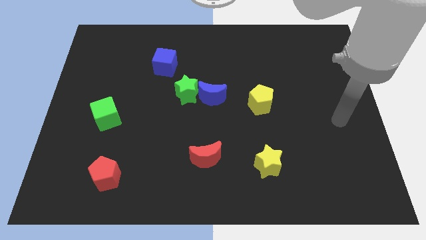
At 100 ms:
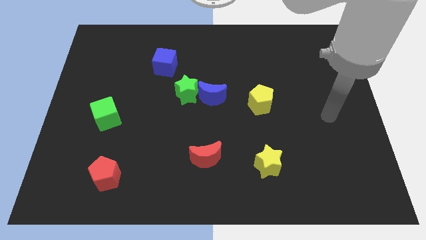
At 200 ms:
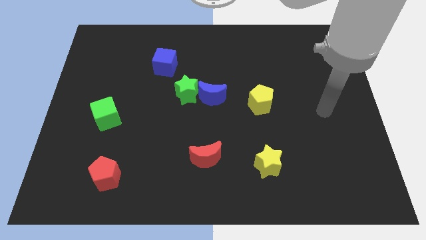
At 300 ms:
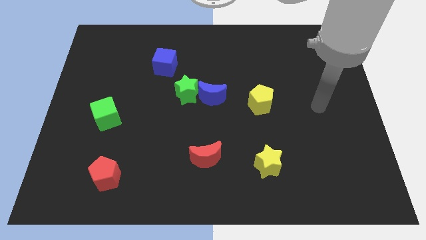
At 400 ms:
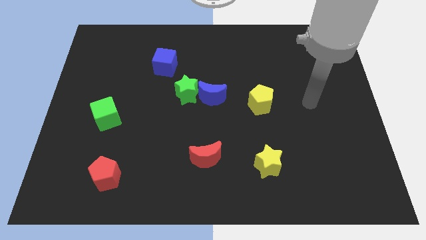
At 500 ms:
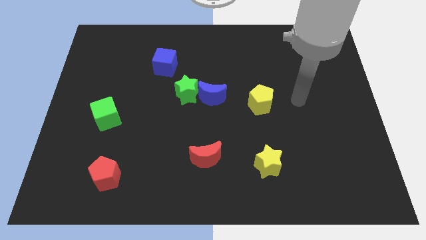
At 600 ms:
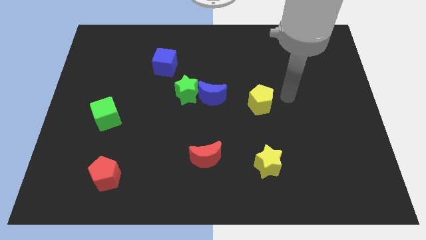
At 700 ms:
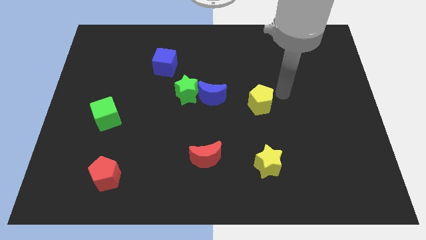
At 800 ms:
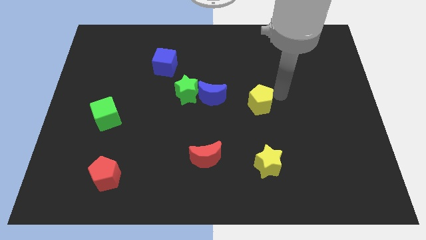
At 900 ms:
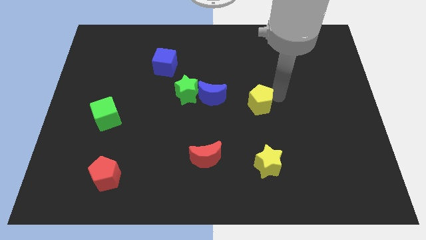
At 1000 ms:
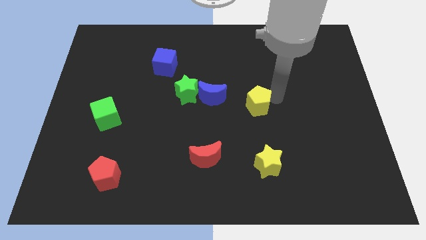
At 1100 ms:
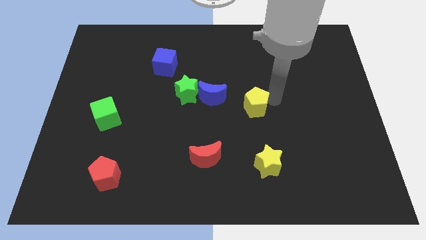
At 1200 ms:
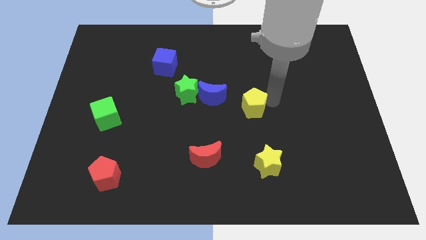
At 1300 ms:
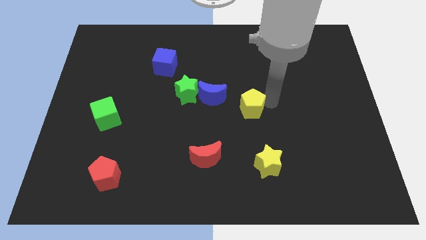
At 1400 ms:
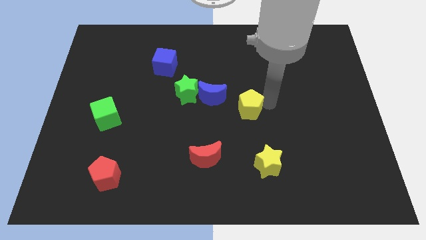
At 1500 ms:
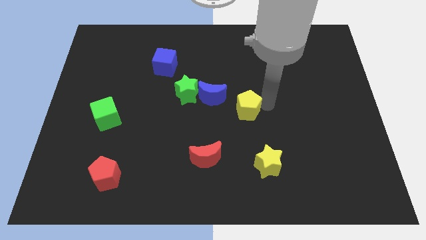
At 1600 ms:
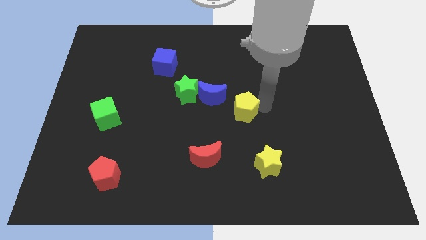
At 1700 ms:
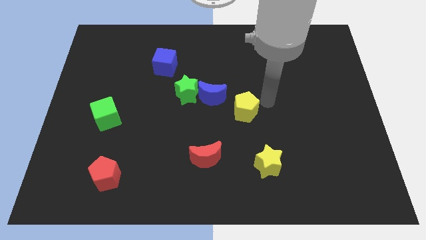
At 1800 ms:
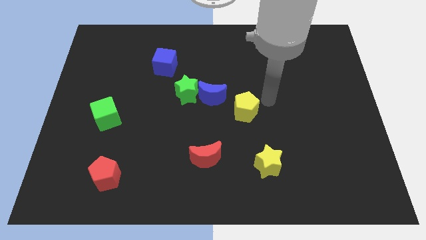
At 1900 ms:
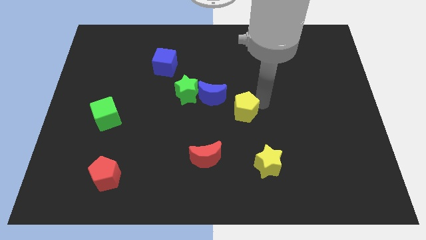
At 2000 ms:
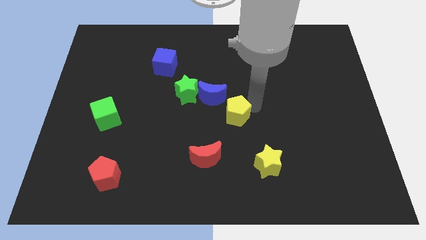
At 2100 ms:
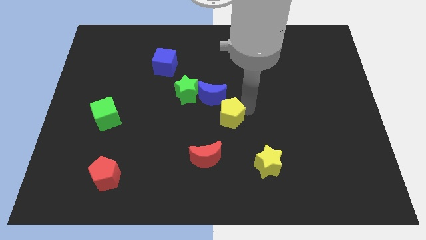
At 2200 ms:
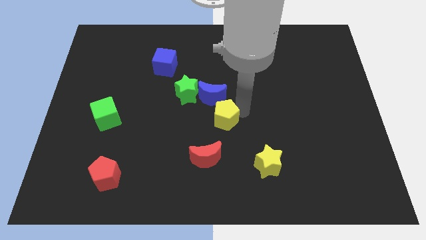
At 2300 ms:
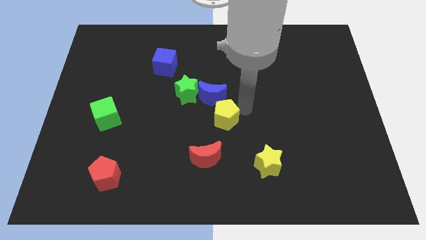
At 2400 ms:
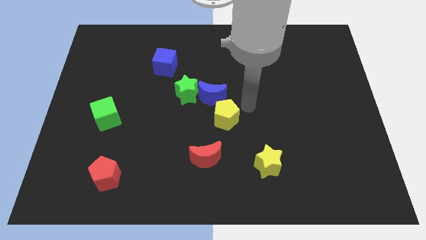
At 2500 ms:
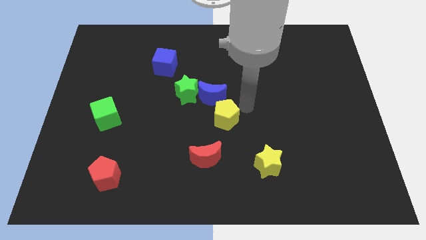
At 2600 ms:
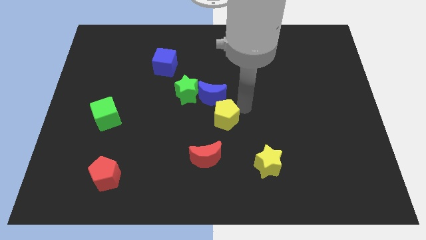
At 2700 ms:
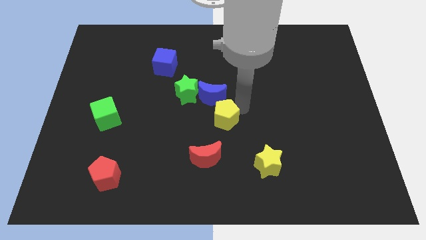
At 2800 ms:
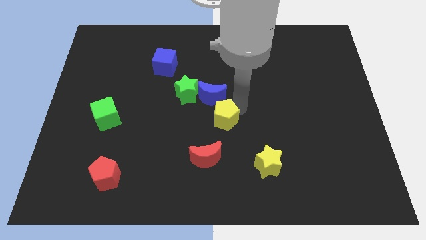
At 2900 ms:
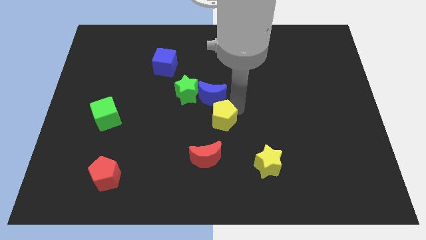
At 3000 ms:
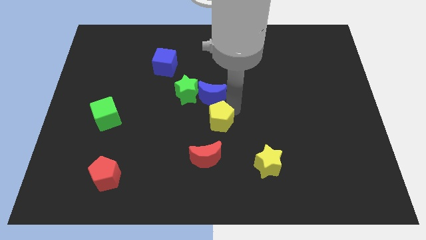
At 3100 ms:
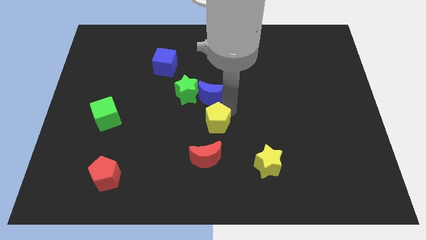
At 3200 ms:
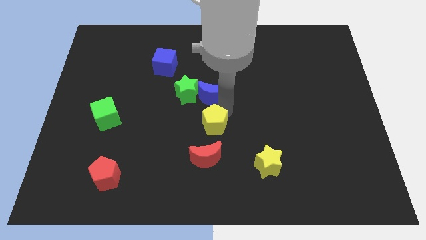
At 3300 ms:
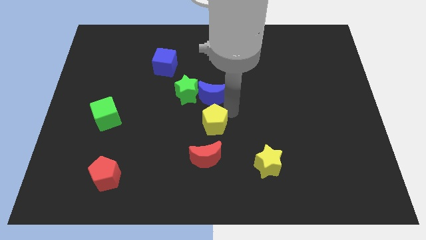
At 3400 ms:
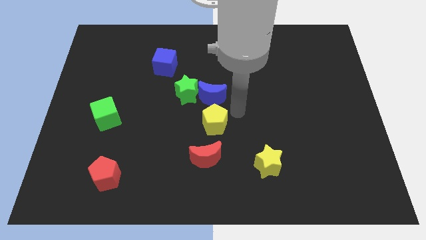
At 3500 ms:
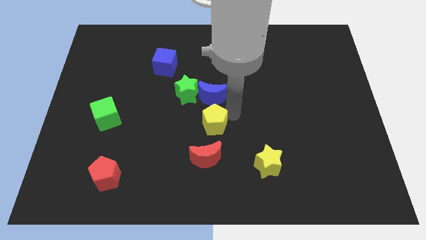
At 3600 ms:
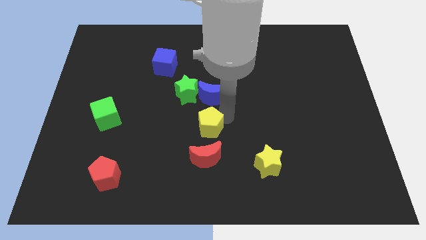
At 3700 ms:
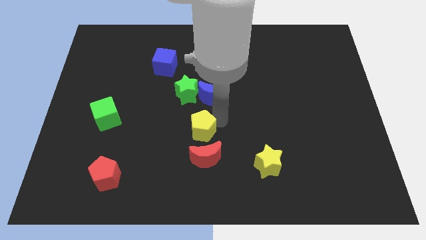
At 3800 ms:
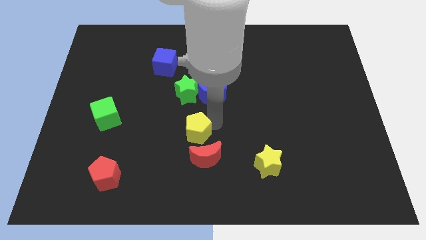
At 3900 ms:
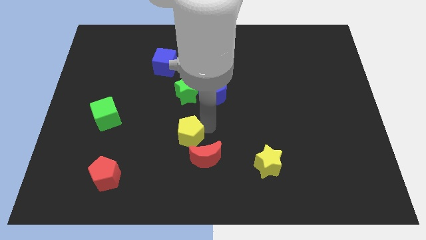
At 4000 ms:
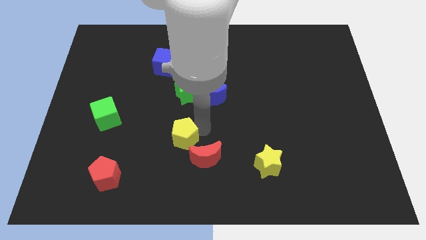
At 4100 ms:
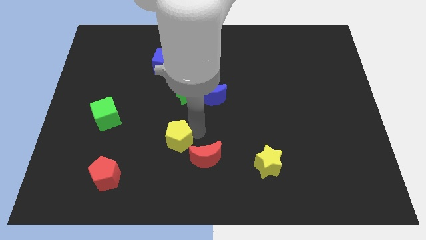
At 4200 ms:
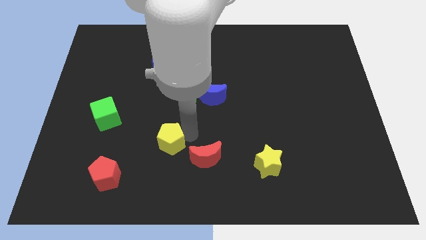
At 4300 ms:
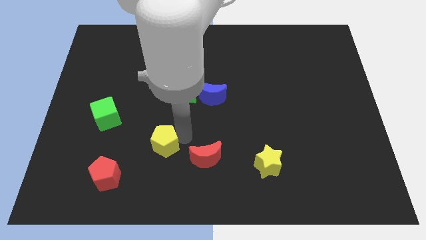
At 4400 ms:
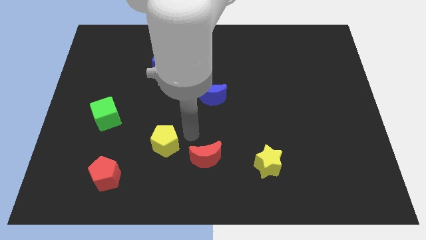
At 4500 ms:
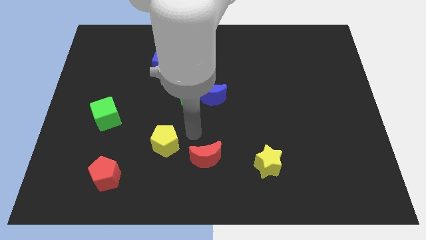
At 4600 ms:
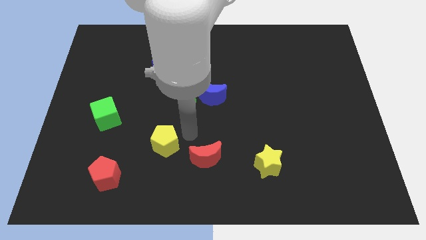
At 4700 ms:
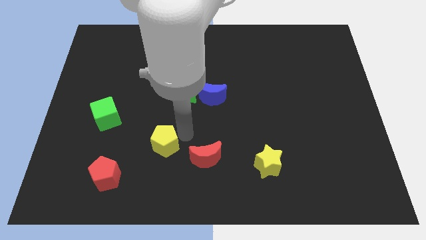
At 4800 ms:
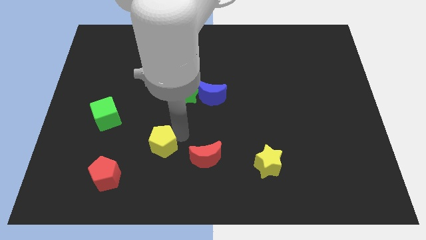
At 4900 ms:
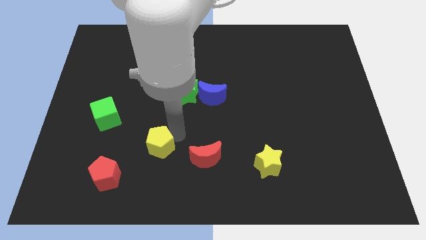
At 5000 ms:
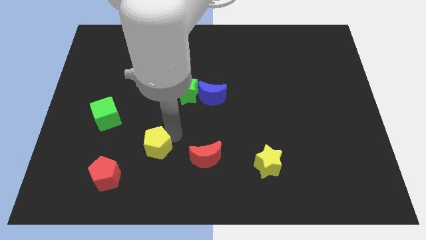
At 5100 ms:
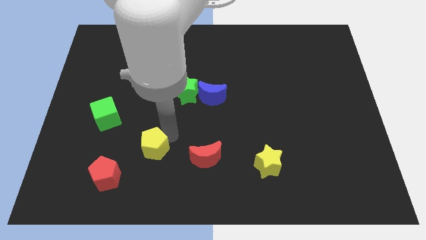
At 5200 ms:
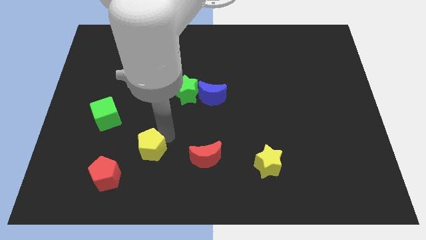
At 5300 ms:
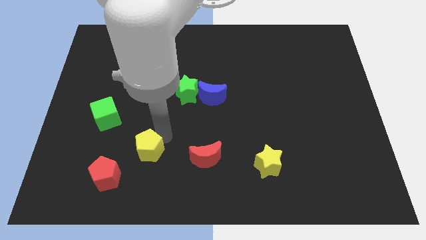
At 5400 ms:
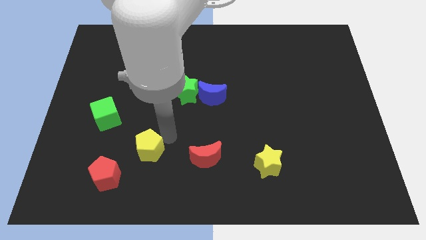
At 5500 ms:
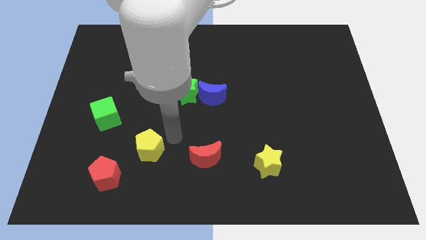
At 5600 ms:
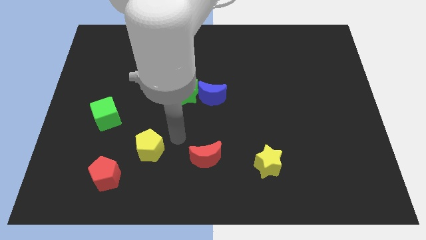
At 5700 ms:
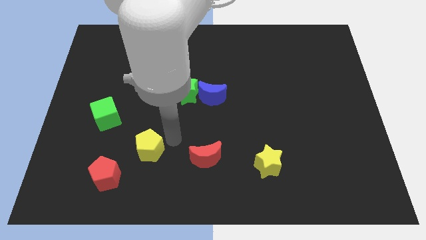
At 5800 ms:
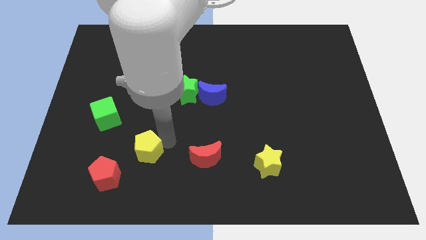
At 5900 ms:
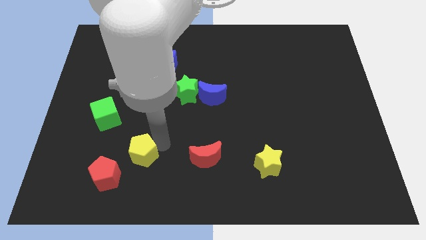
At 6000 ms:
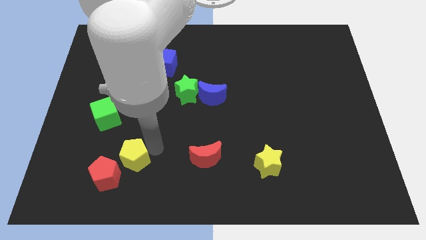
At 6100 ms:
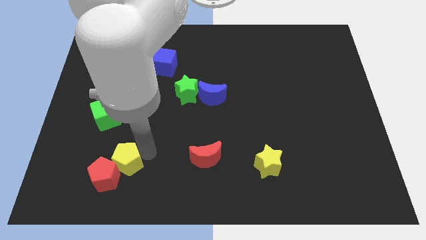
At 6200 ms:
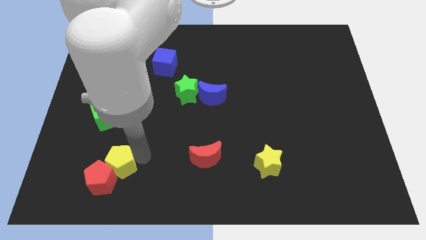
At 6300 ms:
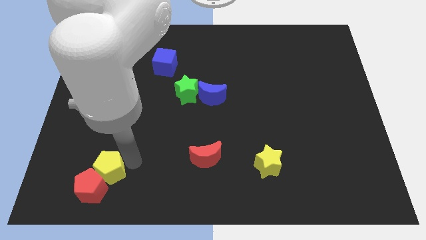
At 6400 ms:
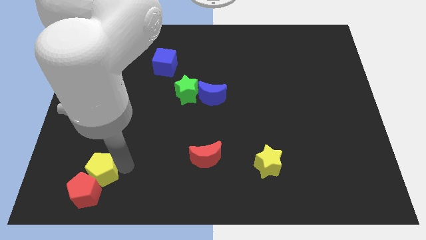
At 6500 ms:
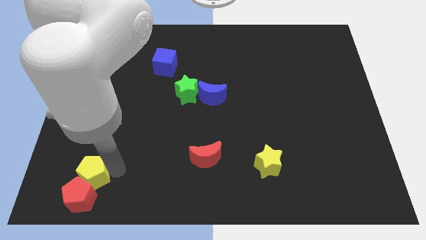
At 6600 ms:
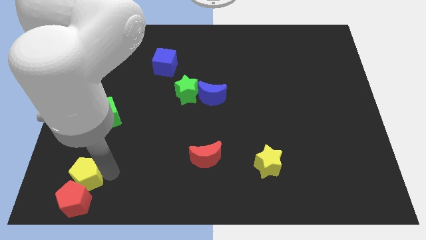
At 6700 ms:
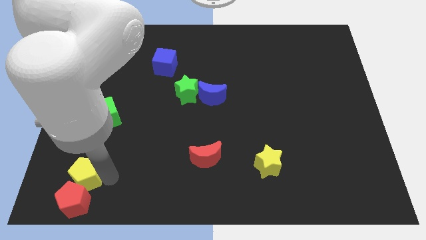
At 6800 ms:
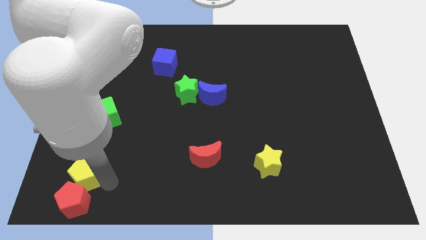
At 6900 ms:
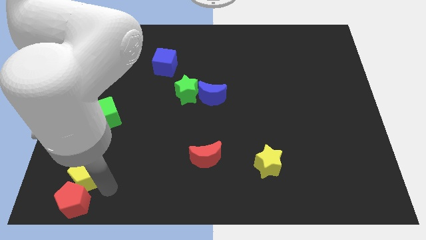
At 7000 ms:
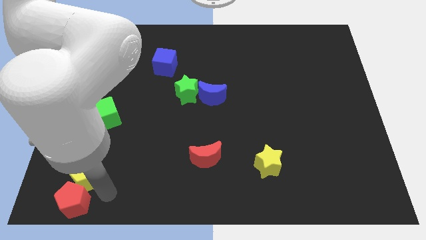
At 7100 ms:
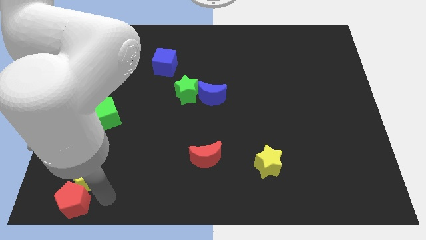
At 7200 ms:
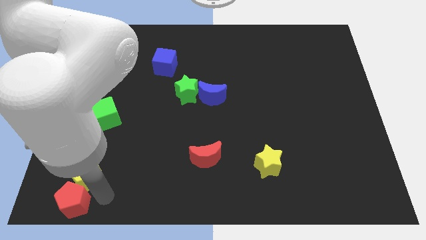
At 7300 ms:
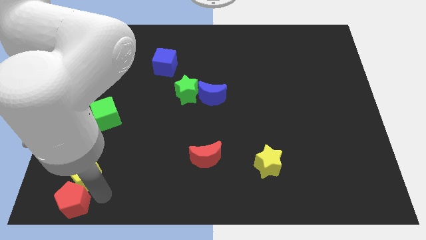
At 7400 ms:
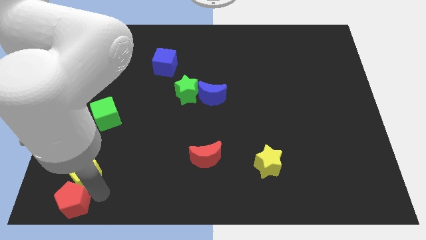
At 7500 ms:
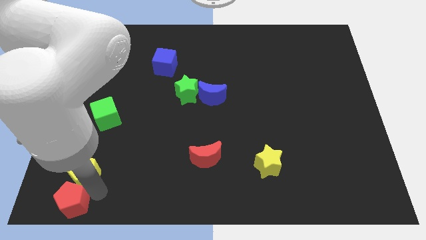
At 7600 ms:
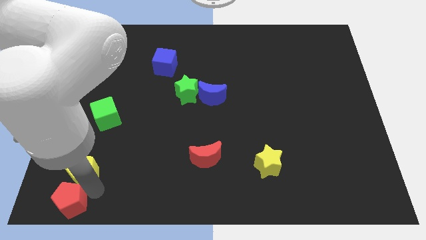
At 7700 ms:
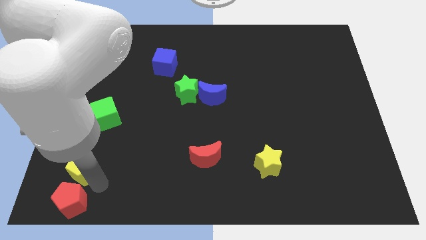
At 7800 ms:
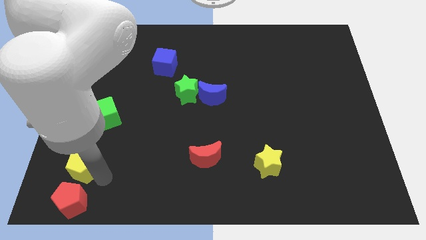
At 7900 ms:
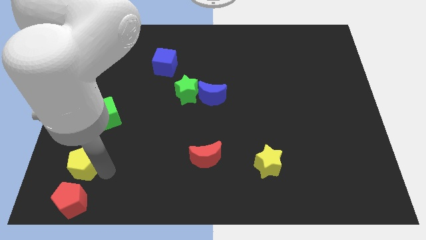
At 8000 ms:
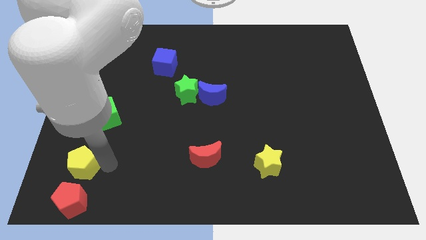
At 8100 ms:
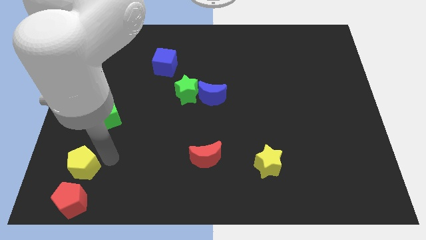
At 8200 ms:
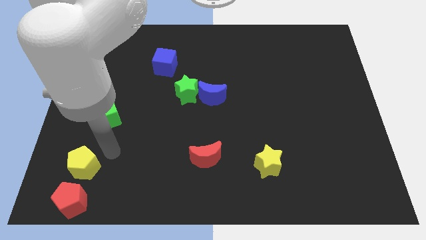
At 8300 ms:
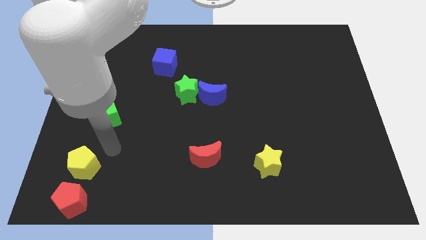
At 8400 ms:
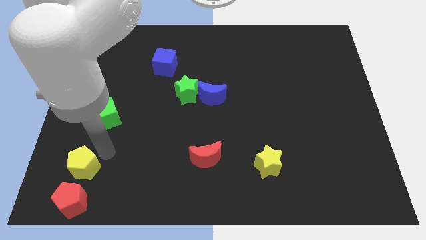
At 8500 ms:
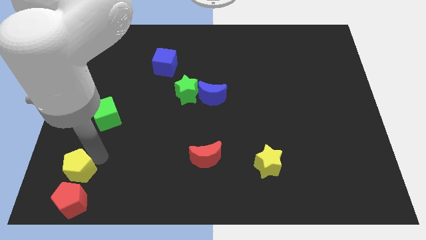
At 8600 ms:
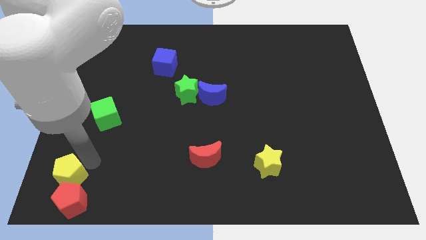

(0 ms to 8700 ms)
slide the yellow pentagon to the lower left corner
